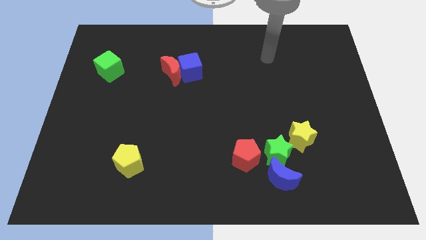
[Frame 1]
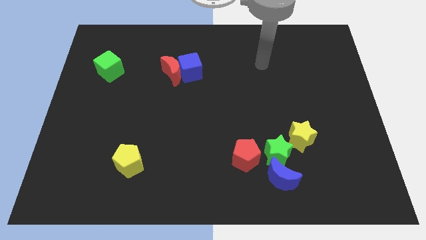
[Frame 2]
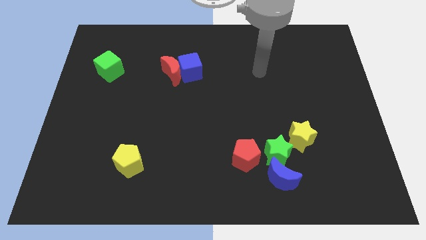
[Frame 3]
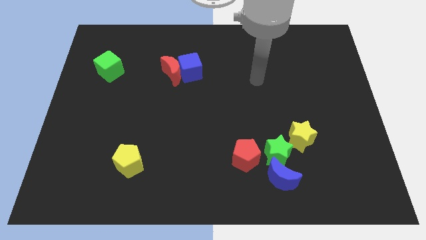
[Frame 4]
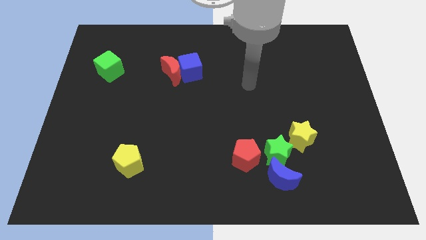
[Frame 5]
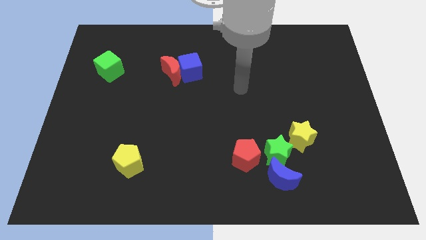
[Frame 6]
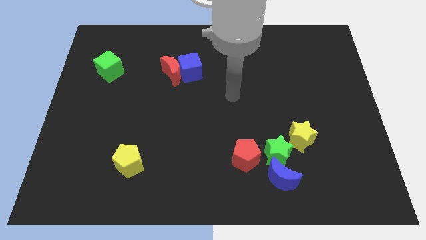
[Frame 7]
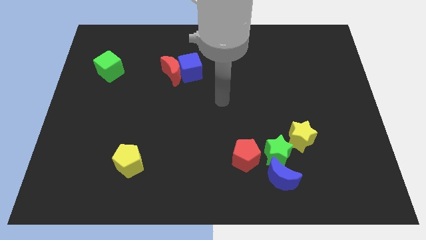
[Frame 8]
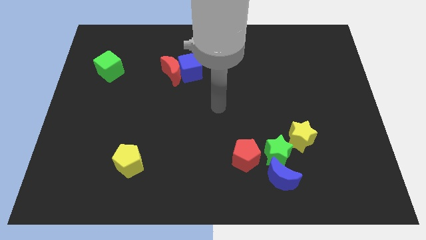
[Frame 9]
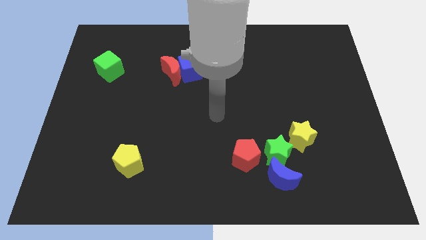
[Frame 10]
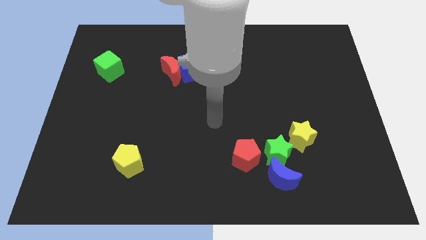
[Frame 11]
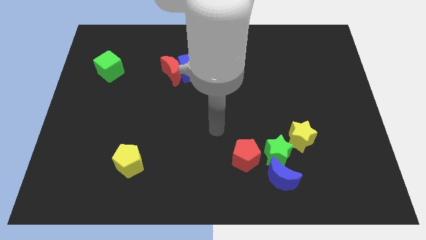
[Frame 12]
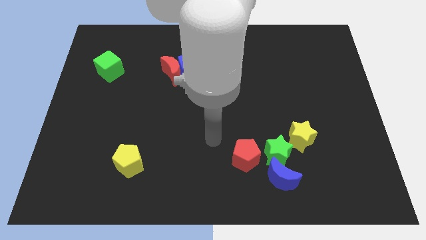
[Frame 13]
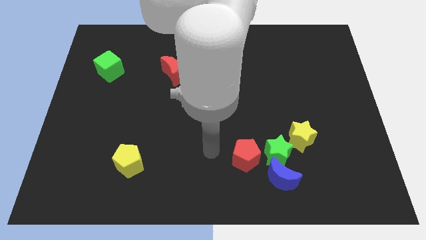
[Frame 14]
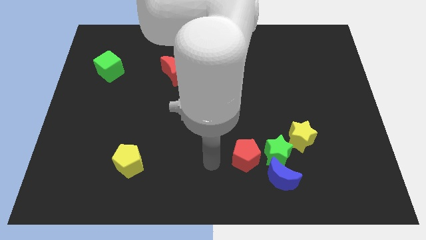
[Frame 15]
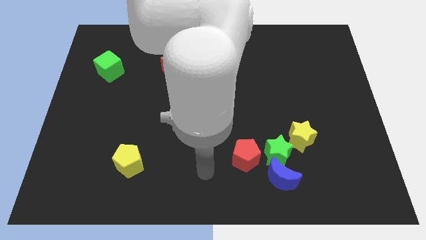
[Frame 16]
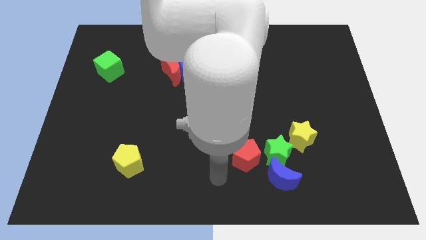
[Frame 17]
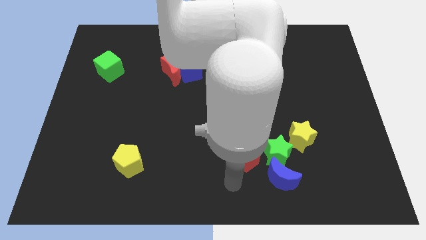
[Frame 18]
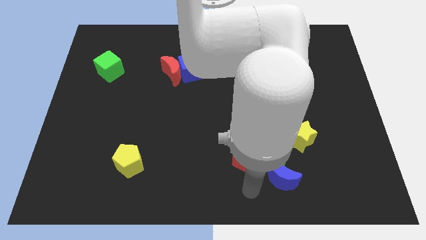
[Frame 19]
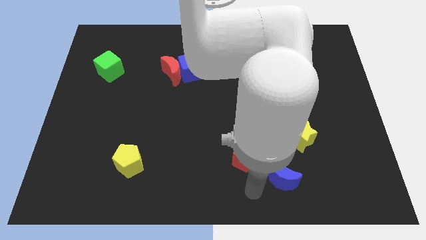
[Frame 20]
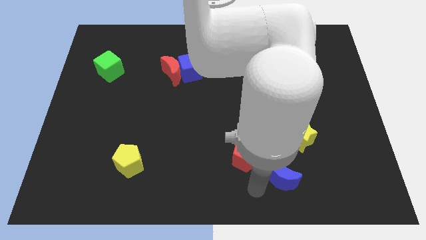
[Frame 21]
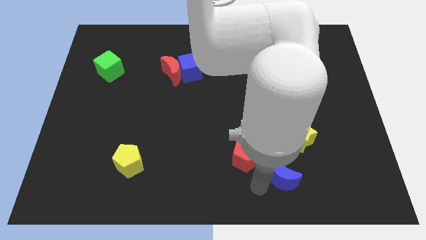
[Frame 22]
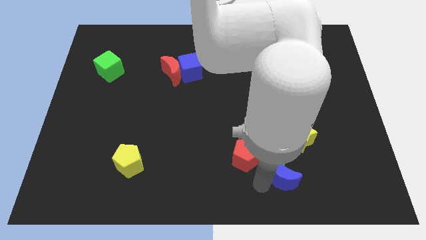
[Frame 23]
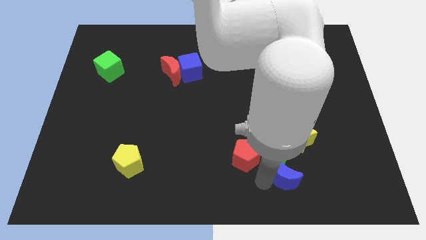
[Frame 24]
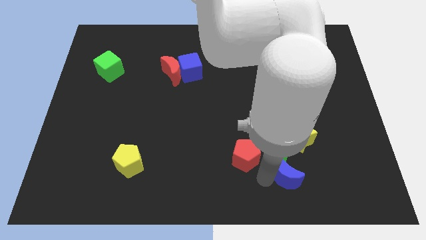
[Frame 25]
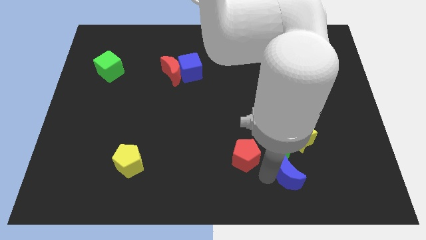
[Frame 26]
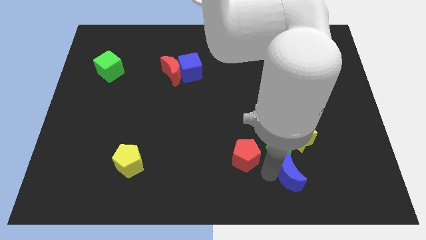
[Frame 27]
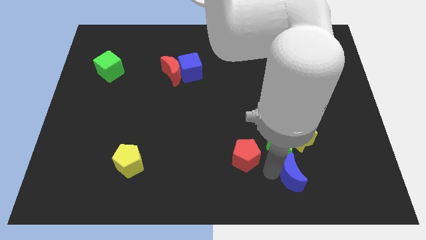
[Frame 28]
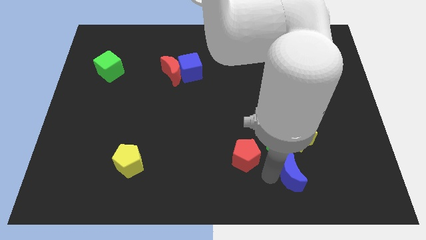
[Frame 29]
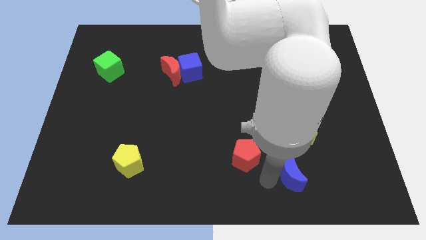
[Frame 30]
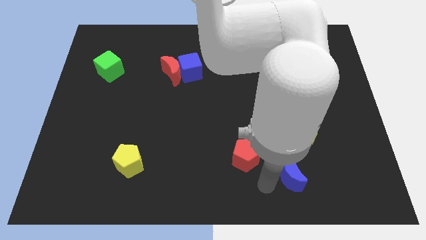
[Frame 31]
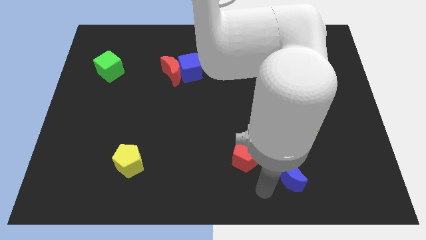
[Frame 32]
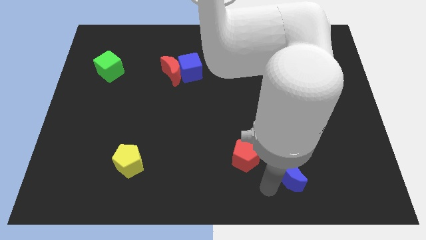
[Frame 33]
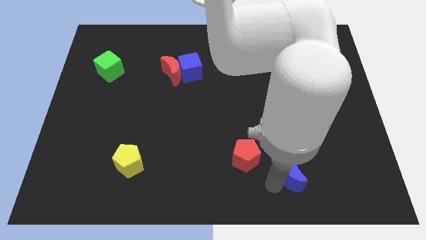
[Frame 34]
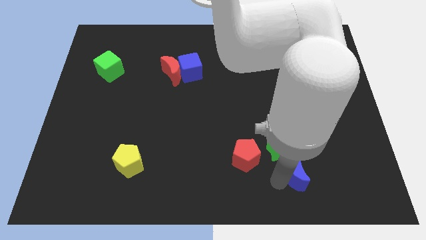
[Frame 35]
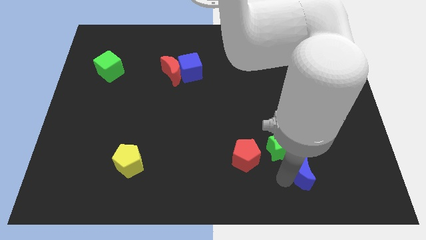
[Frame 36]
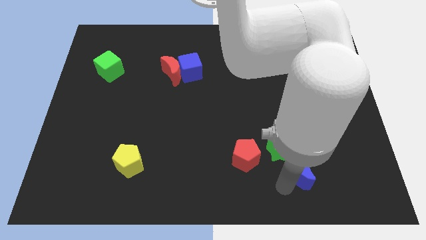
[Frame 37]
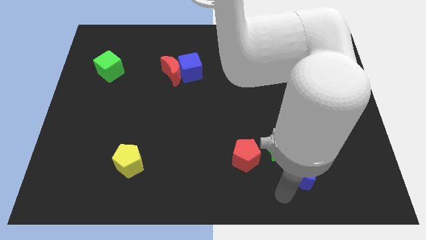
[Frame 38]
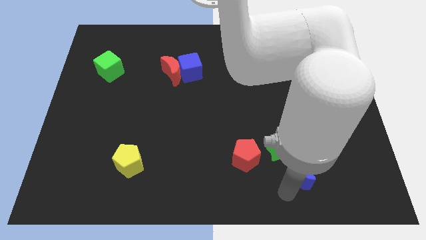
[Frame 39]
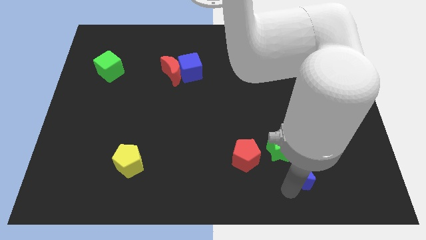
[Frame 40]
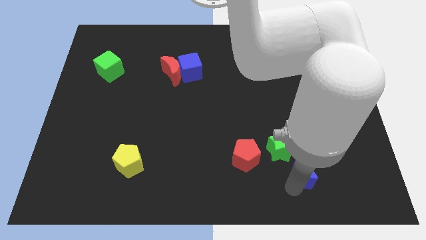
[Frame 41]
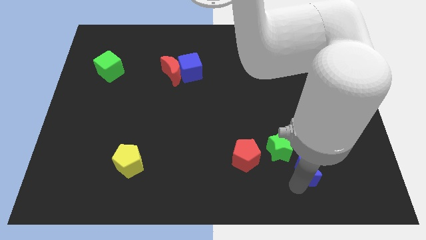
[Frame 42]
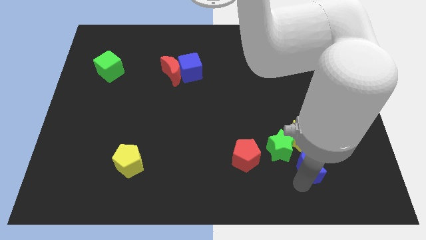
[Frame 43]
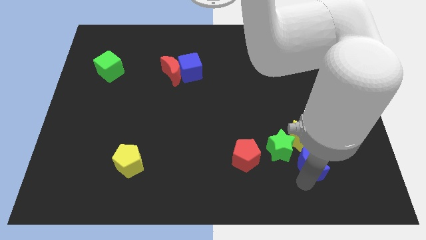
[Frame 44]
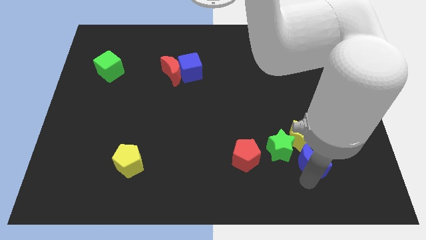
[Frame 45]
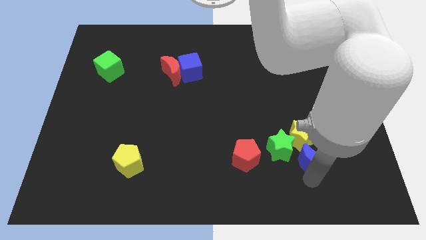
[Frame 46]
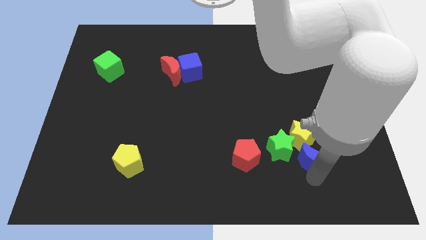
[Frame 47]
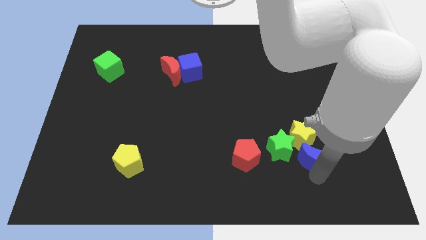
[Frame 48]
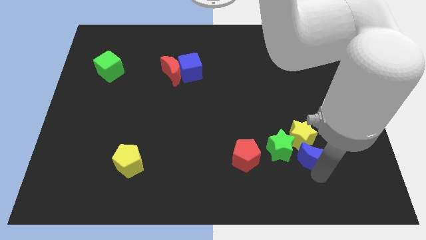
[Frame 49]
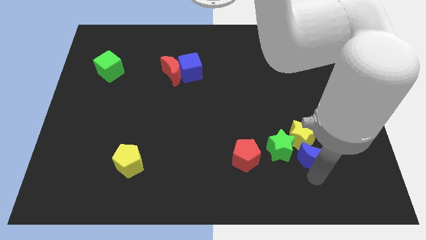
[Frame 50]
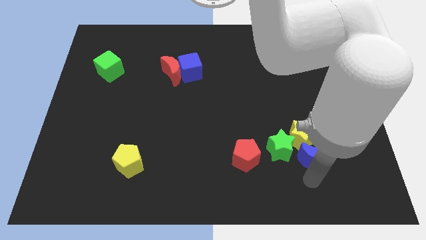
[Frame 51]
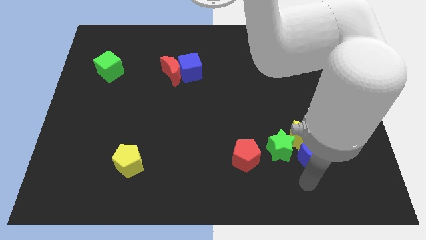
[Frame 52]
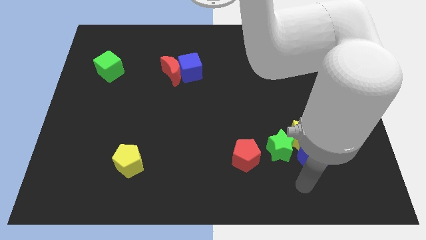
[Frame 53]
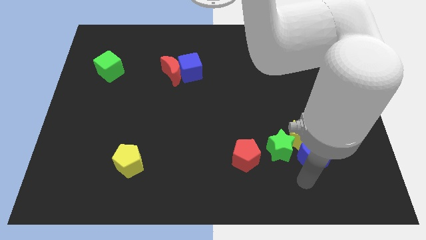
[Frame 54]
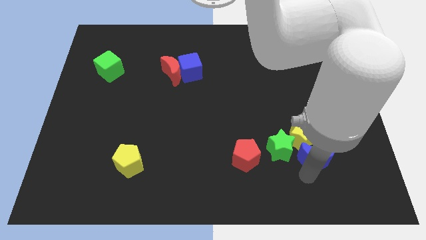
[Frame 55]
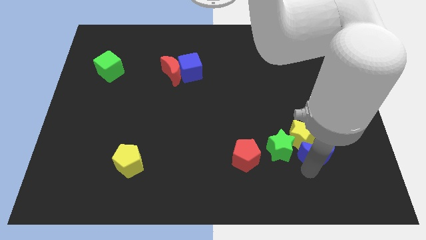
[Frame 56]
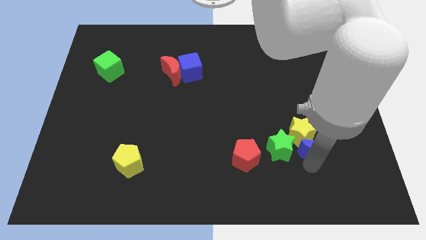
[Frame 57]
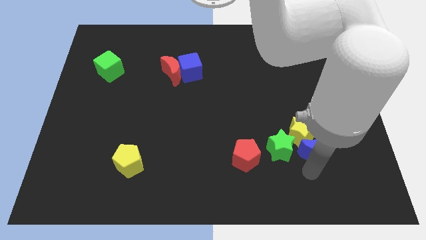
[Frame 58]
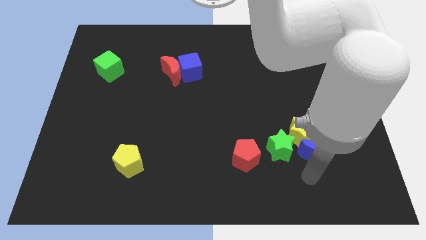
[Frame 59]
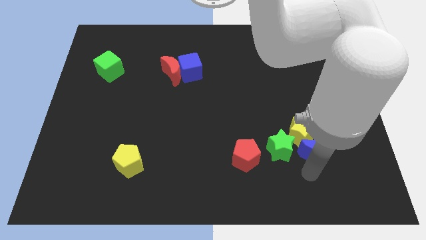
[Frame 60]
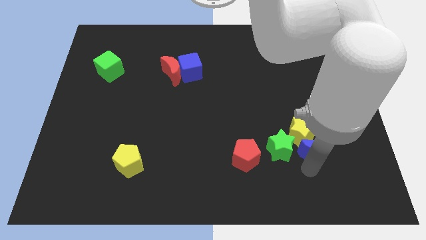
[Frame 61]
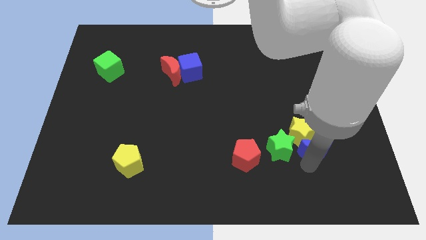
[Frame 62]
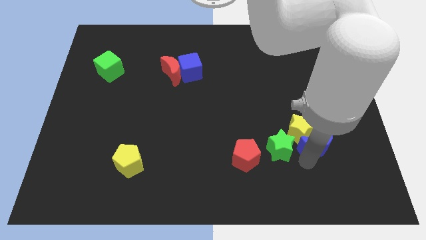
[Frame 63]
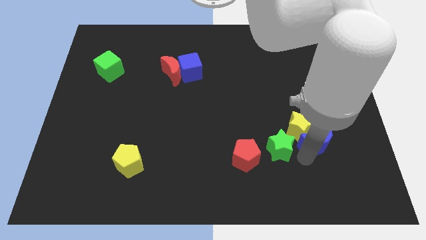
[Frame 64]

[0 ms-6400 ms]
move the blue moon to the top right of the green star
